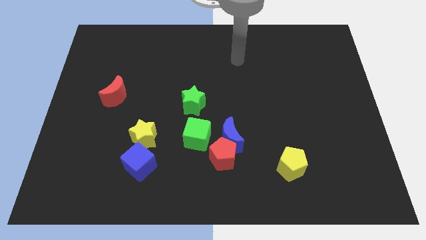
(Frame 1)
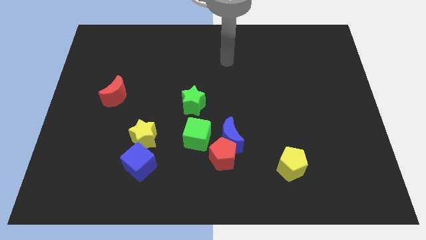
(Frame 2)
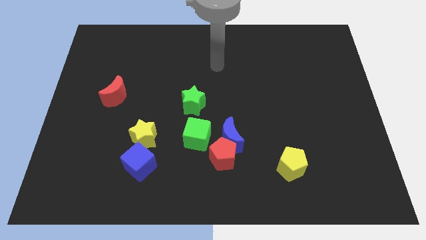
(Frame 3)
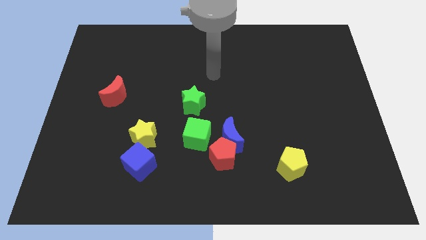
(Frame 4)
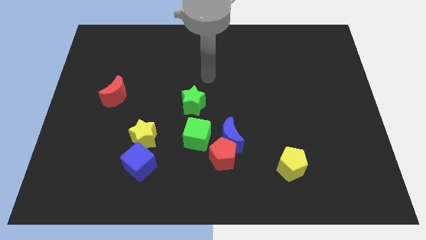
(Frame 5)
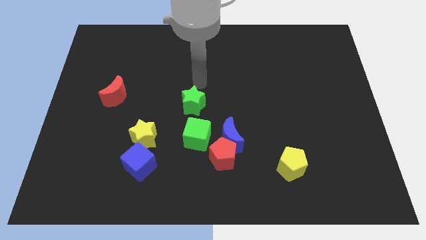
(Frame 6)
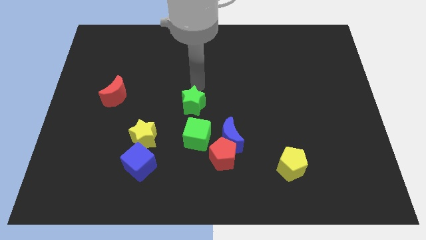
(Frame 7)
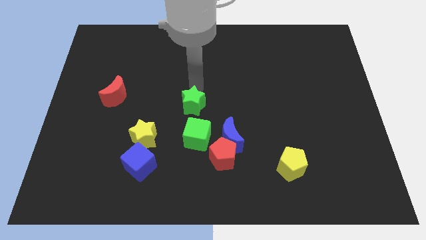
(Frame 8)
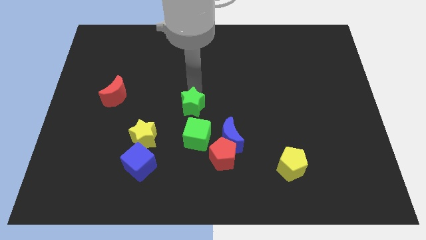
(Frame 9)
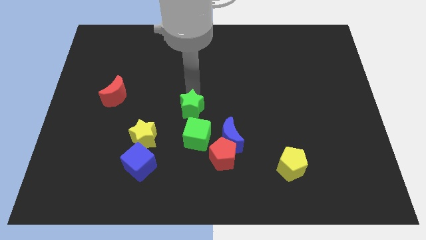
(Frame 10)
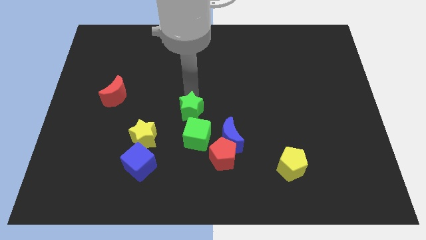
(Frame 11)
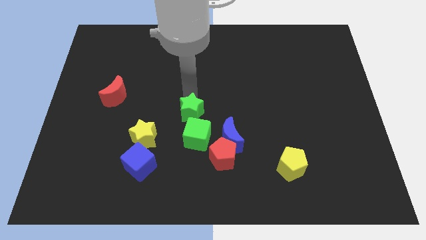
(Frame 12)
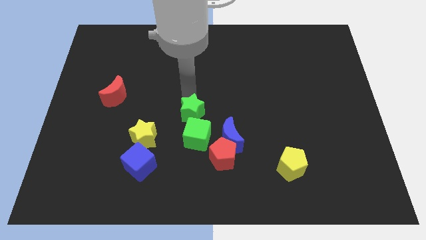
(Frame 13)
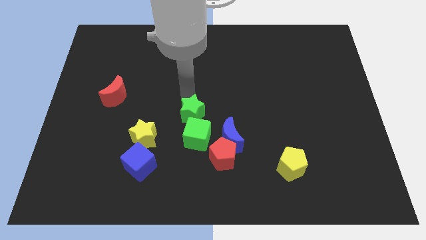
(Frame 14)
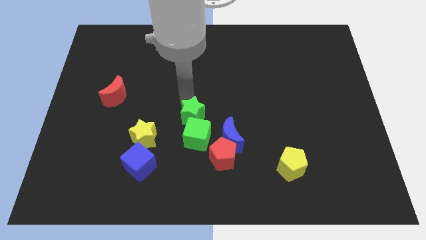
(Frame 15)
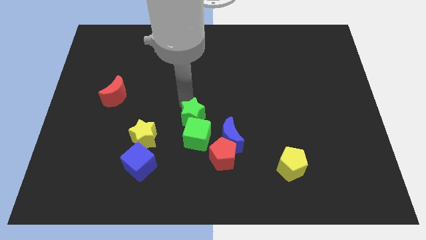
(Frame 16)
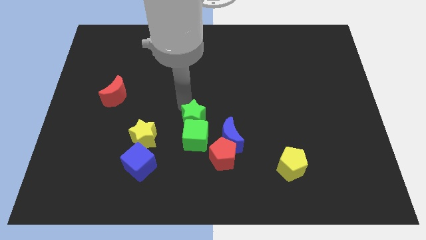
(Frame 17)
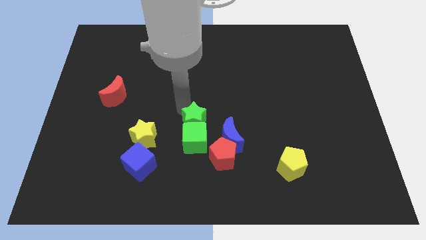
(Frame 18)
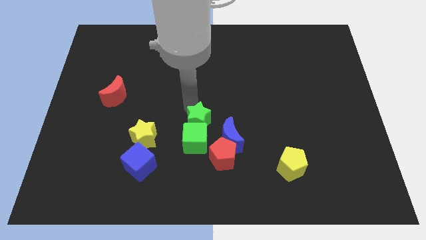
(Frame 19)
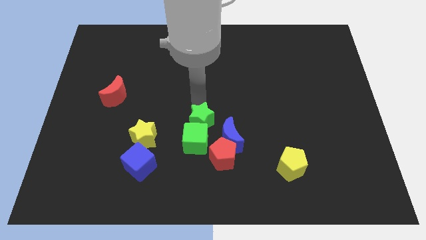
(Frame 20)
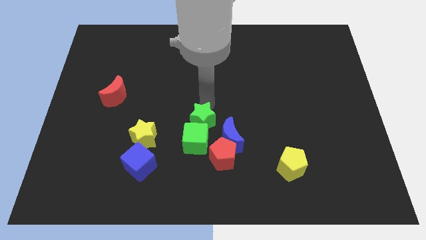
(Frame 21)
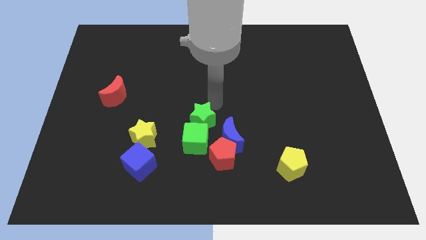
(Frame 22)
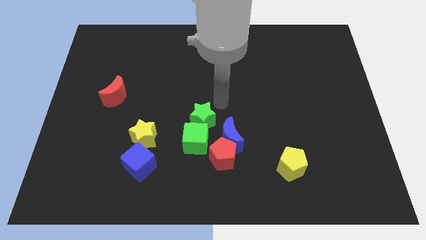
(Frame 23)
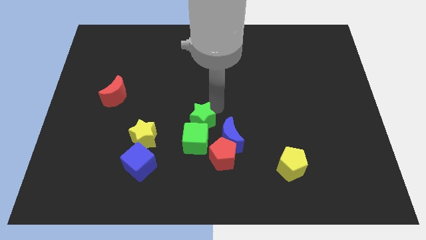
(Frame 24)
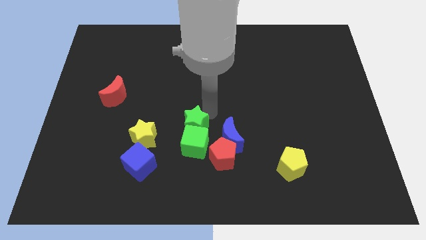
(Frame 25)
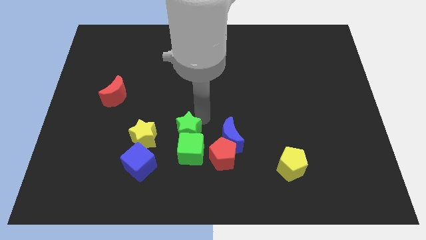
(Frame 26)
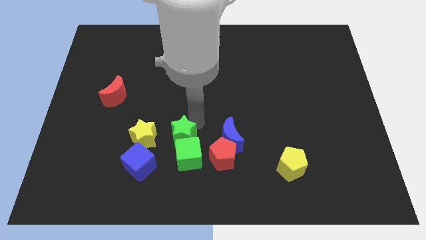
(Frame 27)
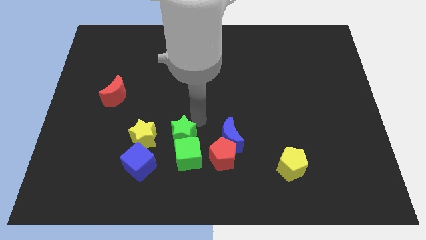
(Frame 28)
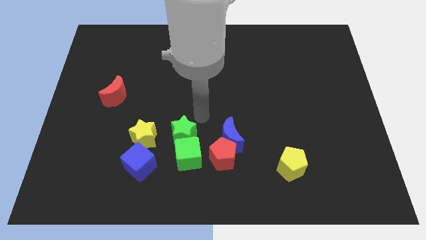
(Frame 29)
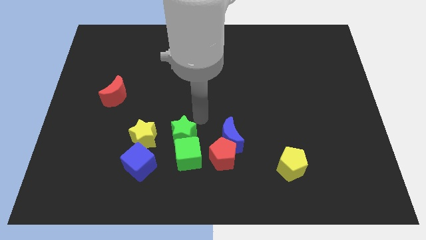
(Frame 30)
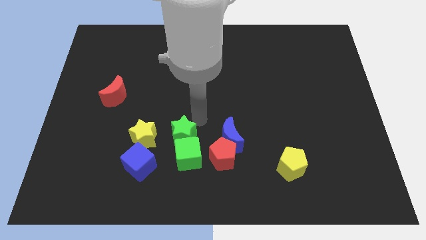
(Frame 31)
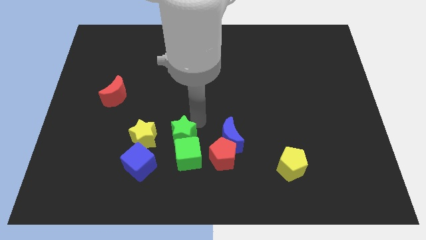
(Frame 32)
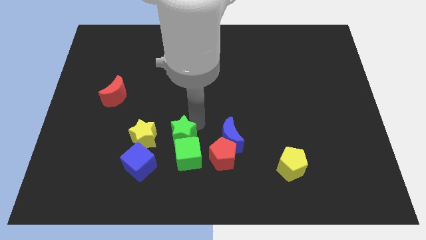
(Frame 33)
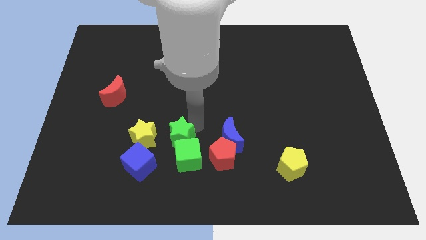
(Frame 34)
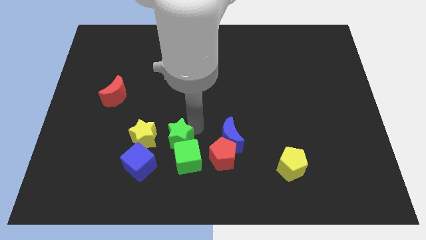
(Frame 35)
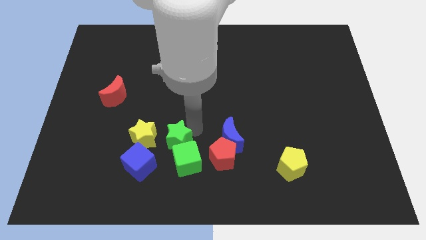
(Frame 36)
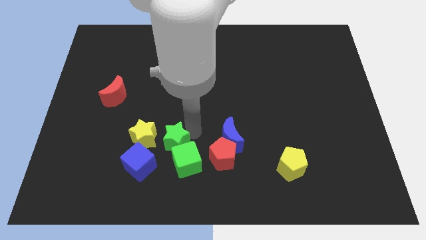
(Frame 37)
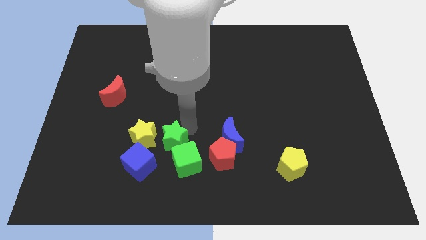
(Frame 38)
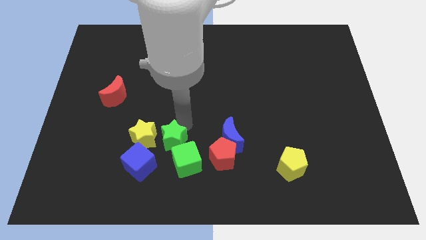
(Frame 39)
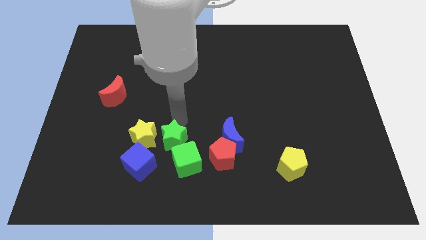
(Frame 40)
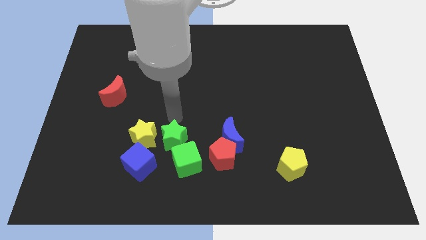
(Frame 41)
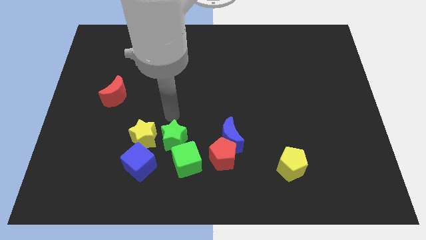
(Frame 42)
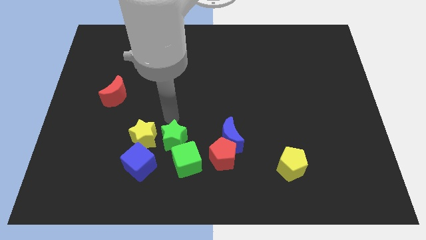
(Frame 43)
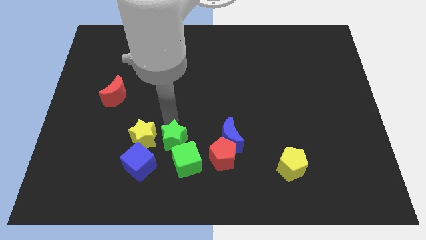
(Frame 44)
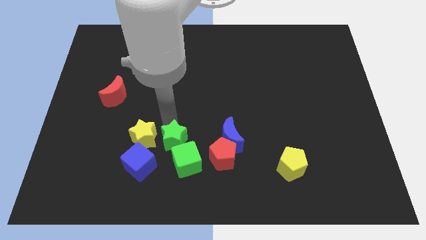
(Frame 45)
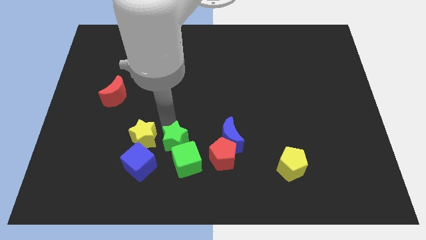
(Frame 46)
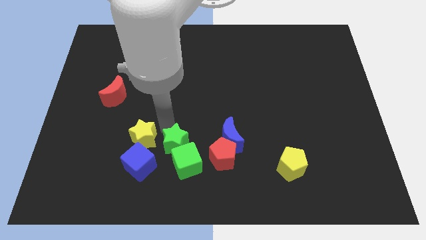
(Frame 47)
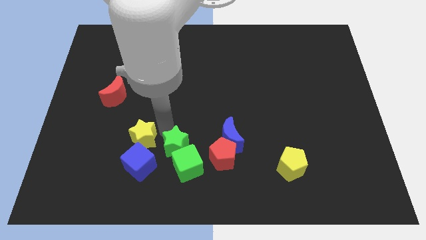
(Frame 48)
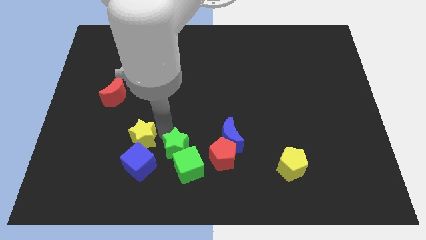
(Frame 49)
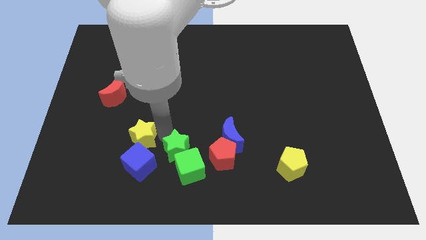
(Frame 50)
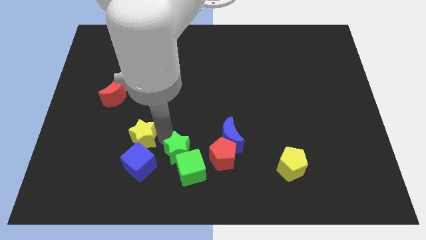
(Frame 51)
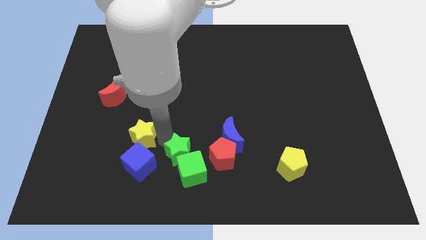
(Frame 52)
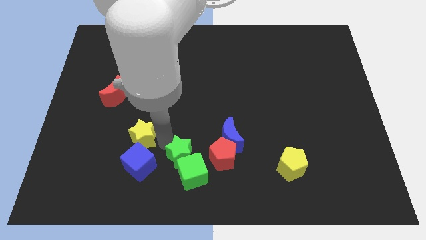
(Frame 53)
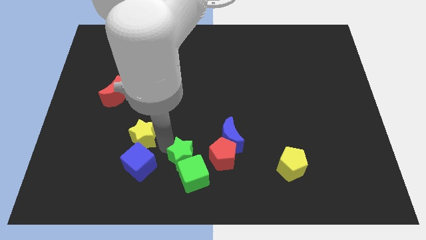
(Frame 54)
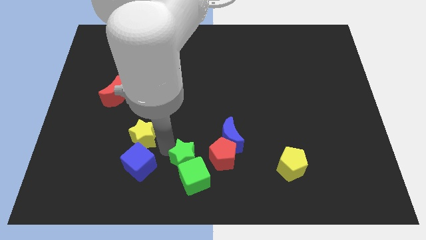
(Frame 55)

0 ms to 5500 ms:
put the green star to the bottom side
